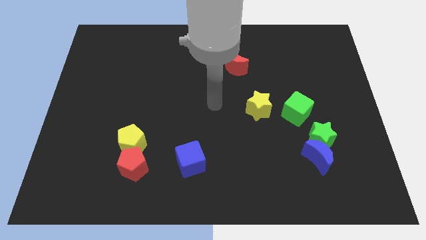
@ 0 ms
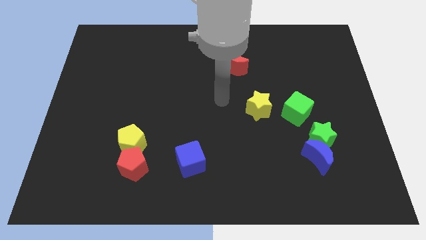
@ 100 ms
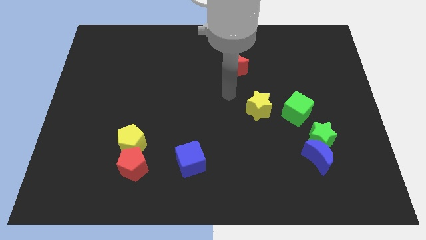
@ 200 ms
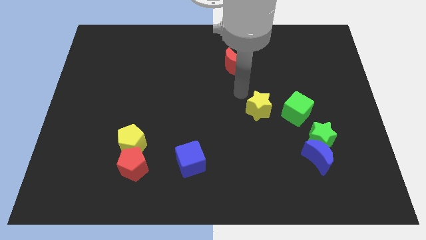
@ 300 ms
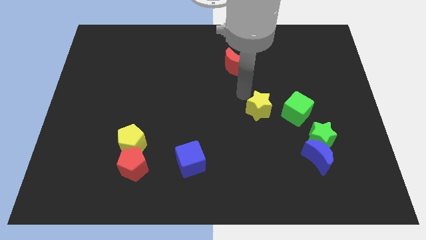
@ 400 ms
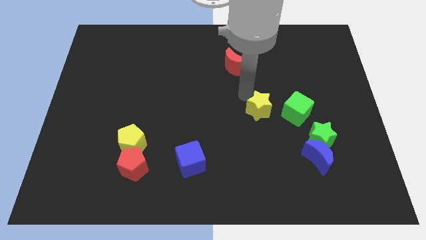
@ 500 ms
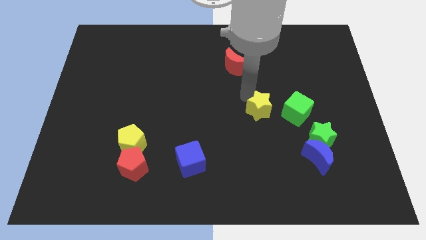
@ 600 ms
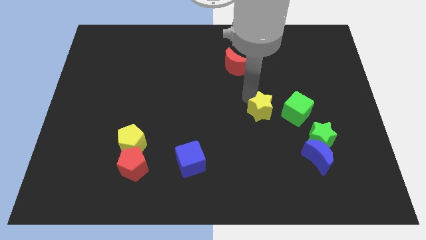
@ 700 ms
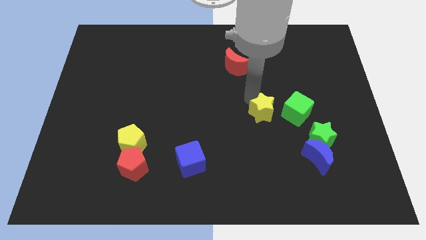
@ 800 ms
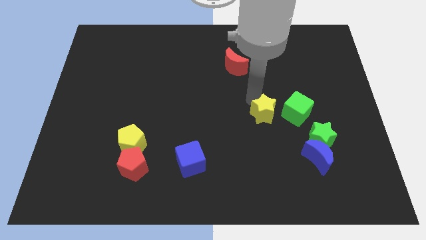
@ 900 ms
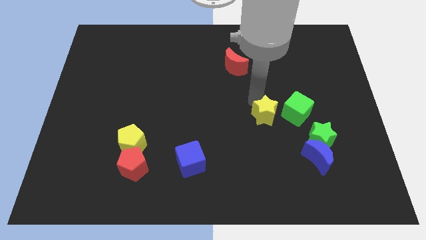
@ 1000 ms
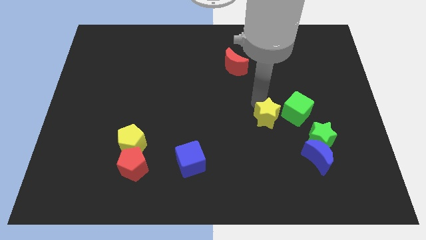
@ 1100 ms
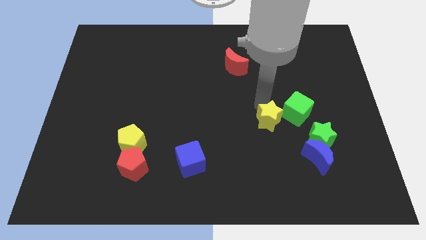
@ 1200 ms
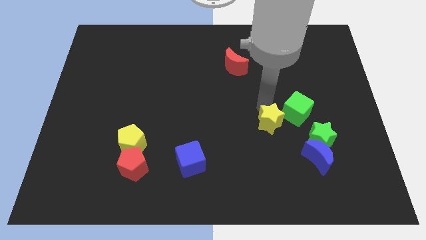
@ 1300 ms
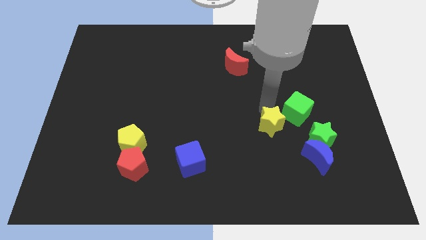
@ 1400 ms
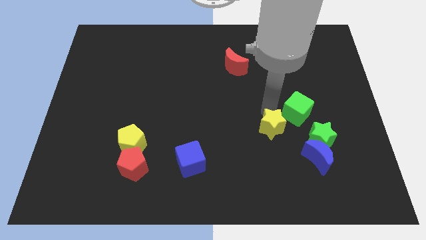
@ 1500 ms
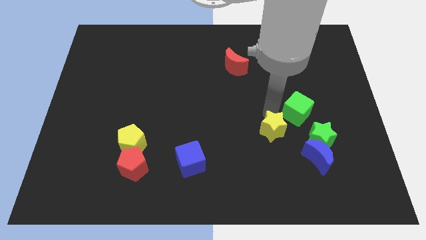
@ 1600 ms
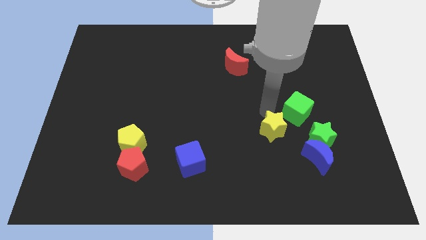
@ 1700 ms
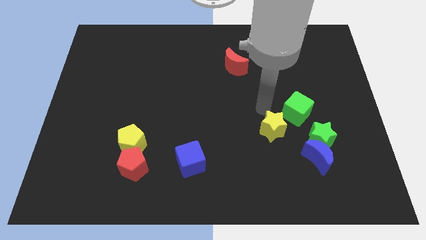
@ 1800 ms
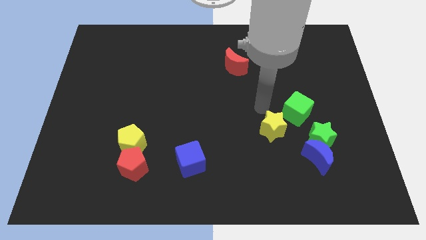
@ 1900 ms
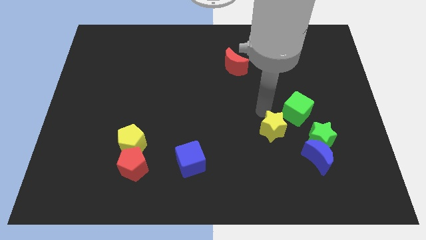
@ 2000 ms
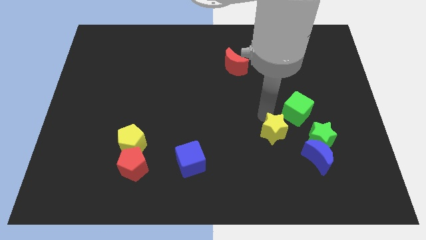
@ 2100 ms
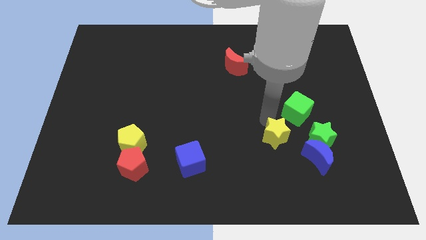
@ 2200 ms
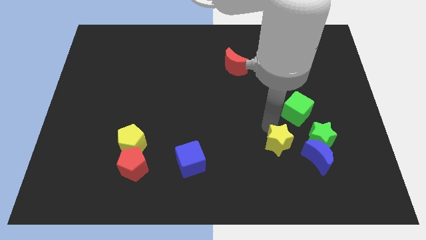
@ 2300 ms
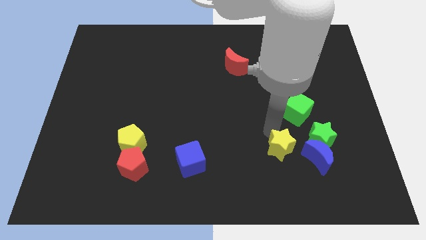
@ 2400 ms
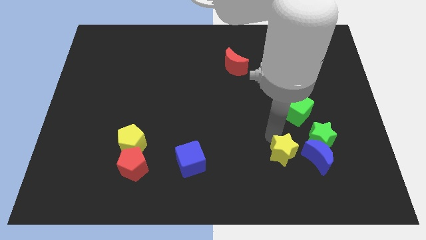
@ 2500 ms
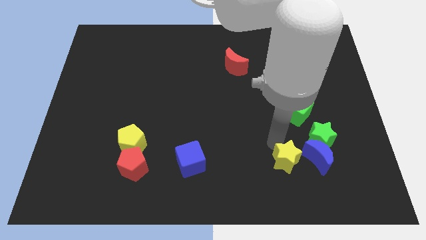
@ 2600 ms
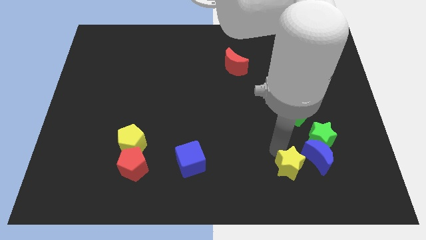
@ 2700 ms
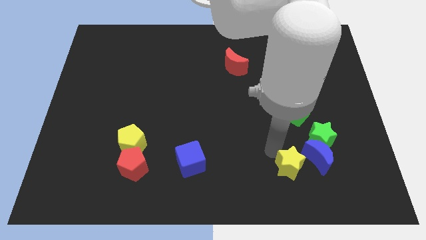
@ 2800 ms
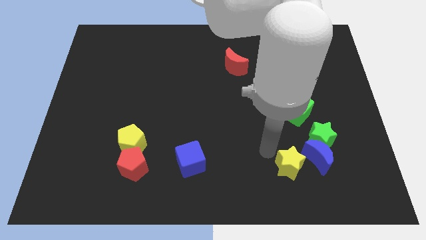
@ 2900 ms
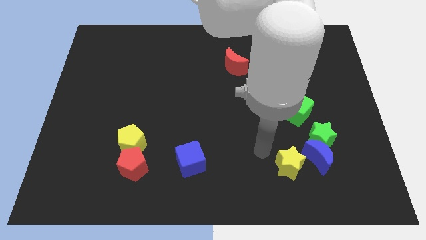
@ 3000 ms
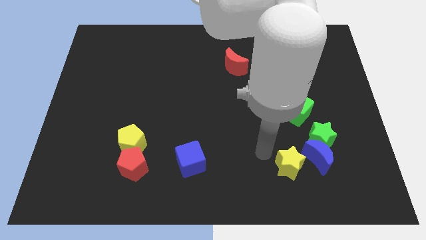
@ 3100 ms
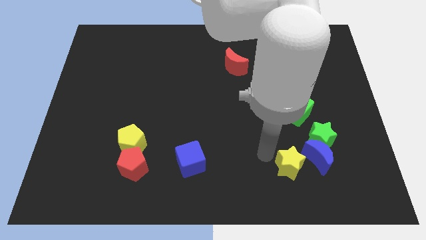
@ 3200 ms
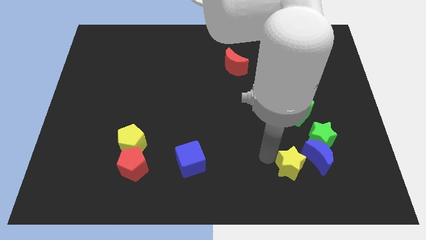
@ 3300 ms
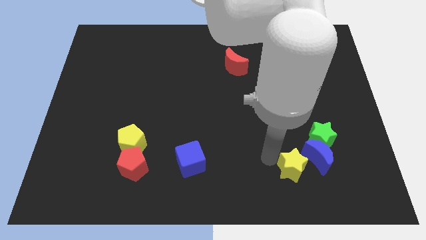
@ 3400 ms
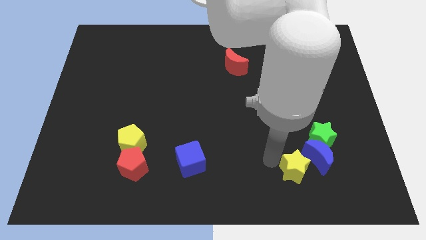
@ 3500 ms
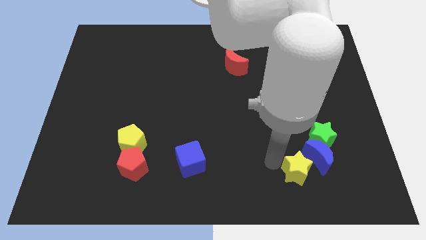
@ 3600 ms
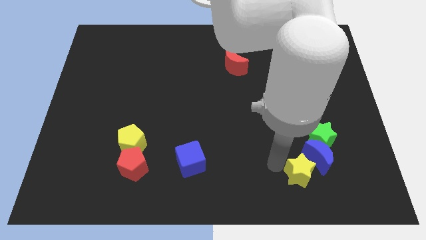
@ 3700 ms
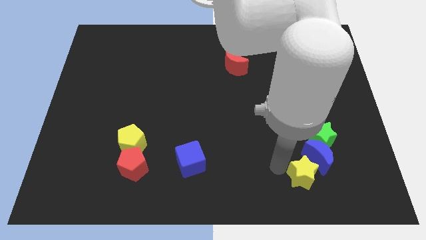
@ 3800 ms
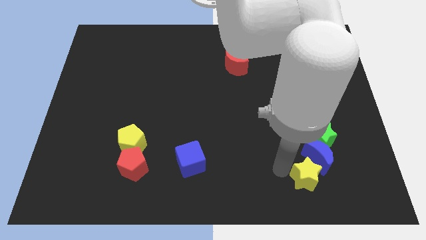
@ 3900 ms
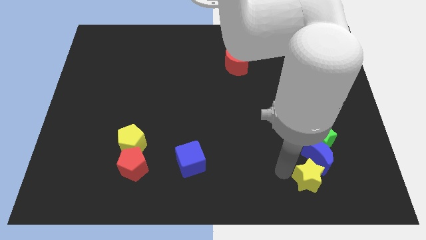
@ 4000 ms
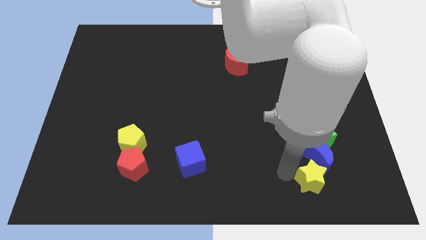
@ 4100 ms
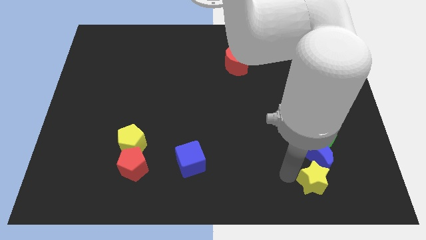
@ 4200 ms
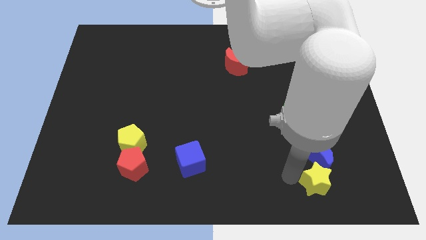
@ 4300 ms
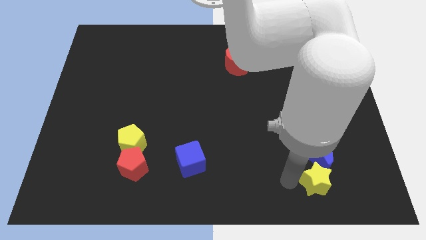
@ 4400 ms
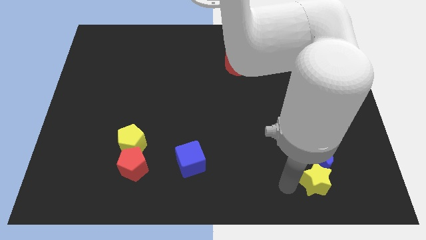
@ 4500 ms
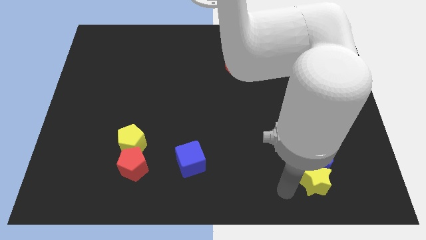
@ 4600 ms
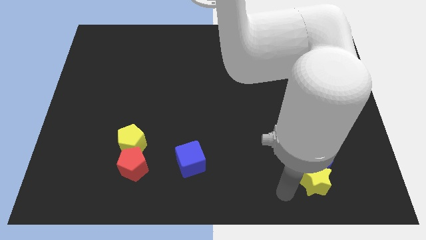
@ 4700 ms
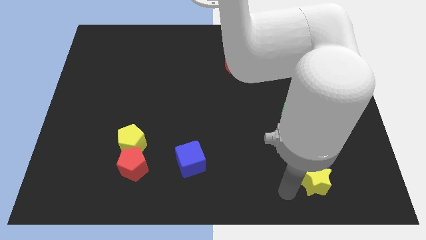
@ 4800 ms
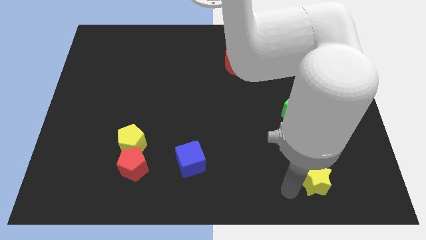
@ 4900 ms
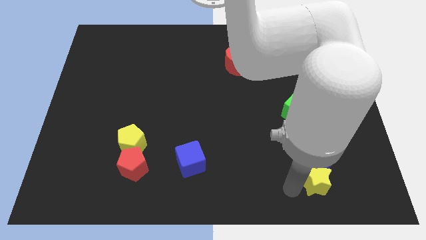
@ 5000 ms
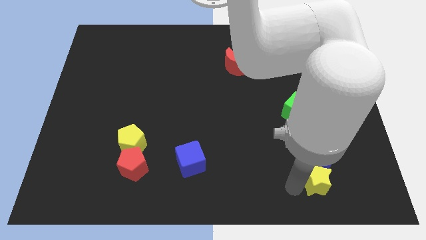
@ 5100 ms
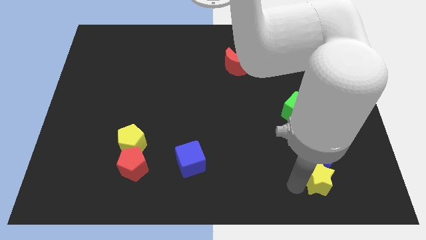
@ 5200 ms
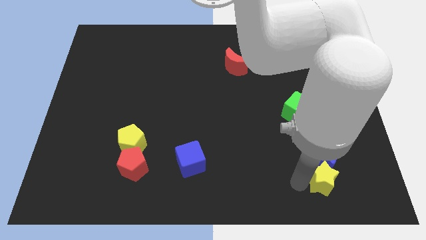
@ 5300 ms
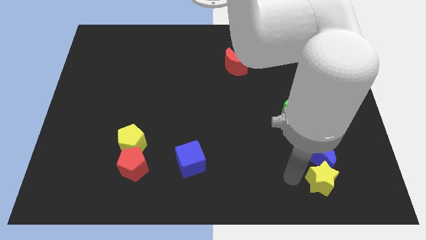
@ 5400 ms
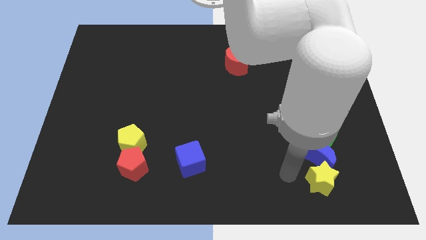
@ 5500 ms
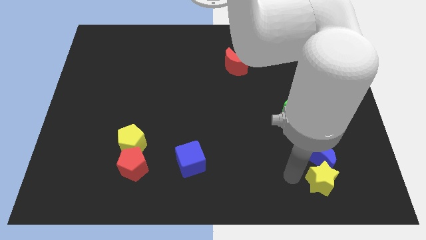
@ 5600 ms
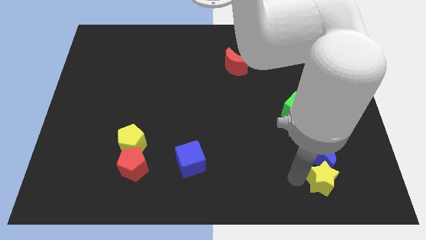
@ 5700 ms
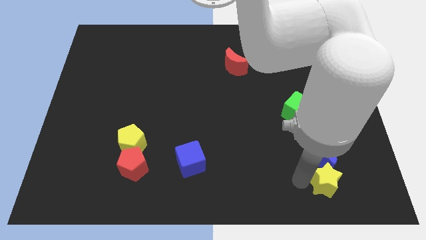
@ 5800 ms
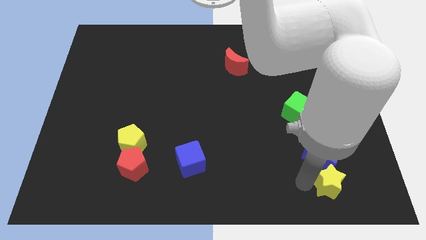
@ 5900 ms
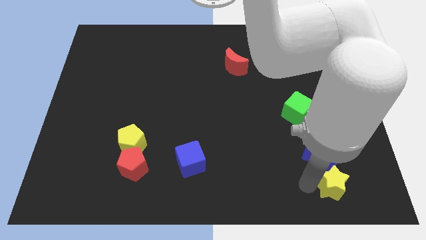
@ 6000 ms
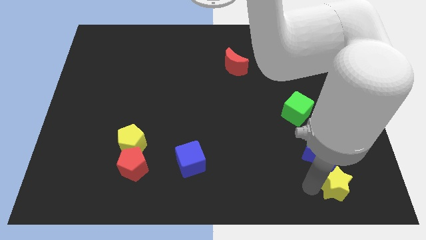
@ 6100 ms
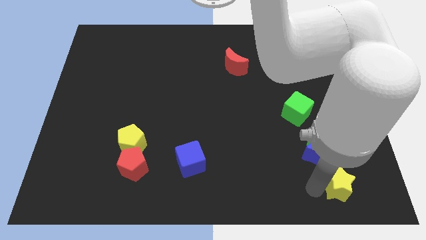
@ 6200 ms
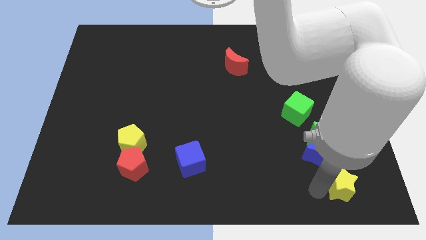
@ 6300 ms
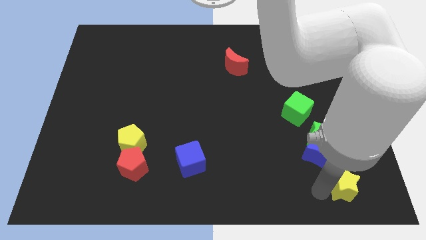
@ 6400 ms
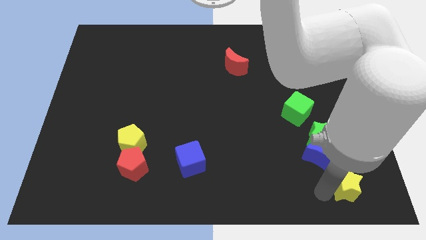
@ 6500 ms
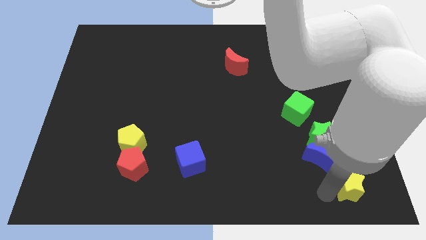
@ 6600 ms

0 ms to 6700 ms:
move the yellow star to the bottom right

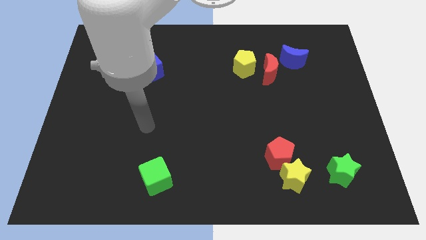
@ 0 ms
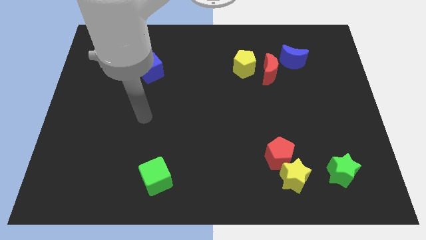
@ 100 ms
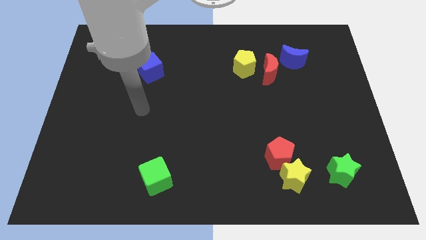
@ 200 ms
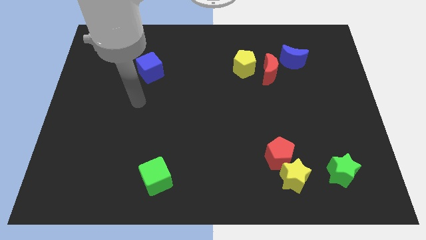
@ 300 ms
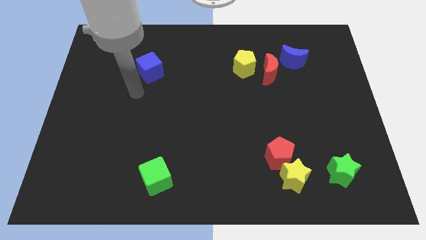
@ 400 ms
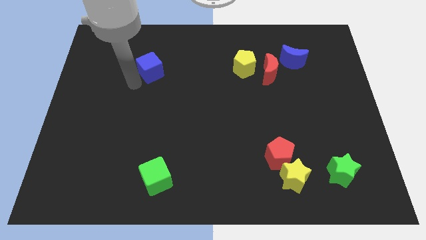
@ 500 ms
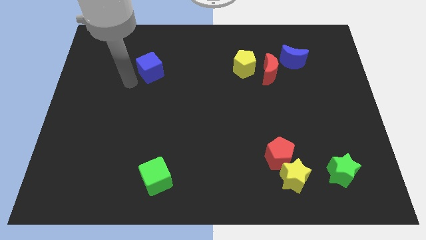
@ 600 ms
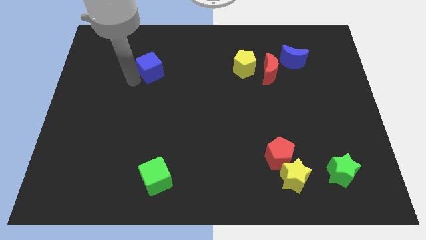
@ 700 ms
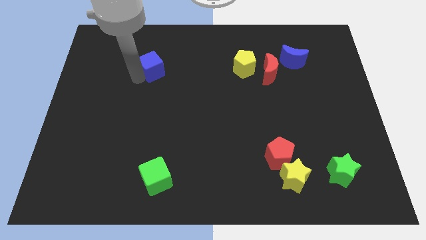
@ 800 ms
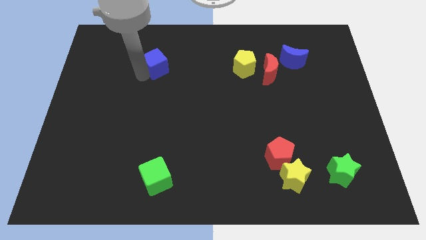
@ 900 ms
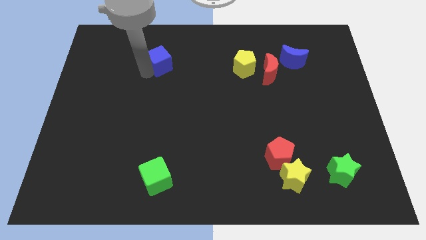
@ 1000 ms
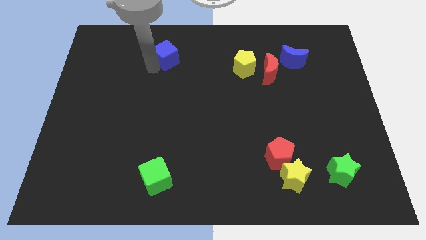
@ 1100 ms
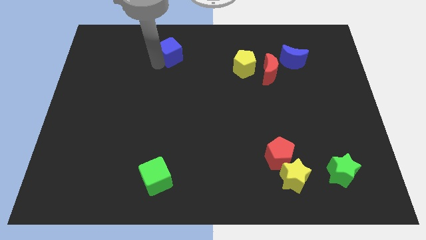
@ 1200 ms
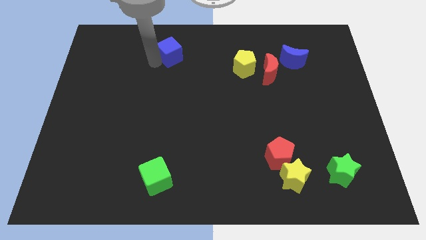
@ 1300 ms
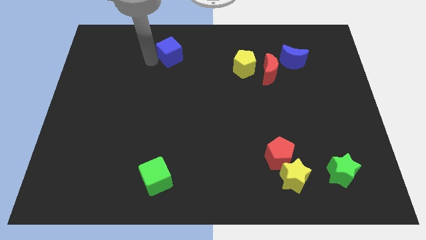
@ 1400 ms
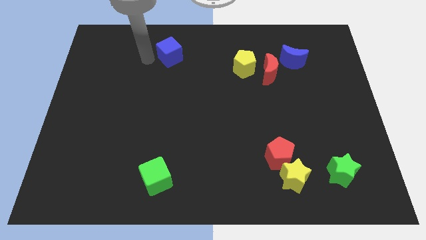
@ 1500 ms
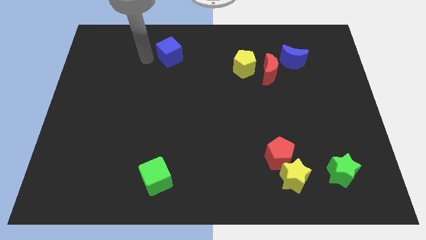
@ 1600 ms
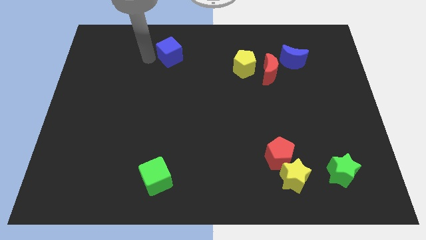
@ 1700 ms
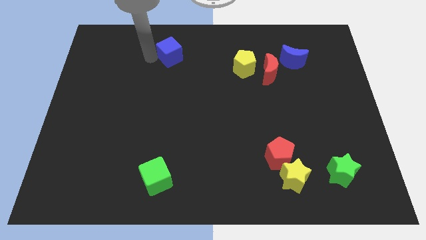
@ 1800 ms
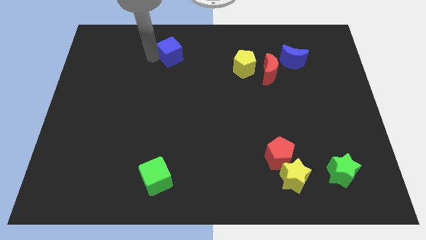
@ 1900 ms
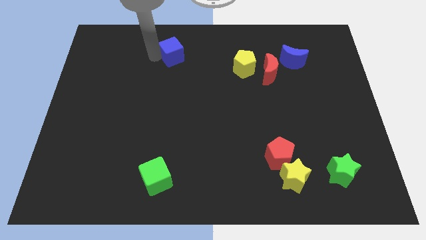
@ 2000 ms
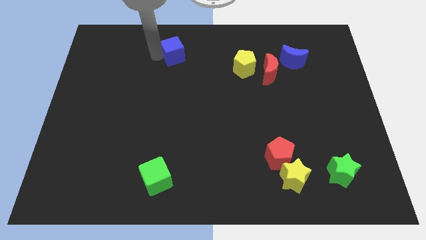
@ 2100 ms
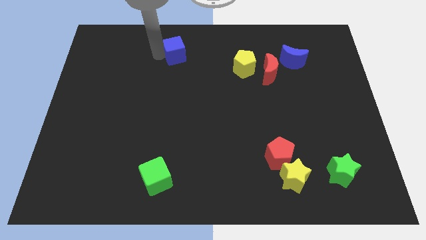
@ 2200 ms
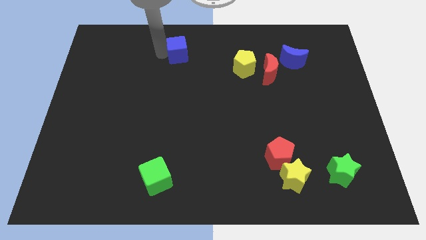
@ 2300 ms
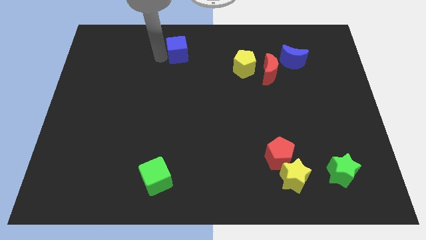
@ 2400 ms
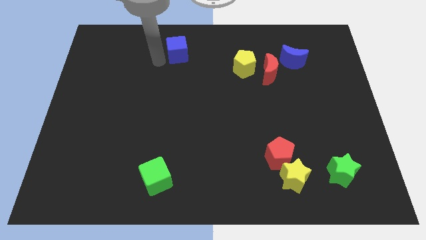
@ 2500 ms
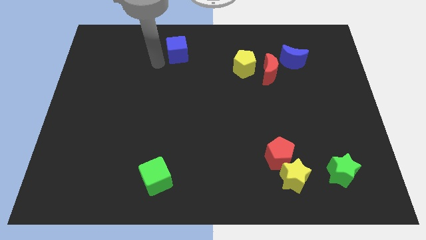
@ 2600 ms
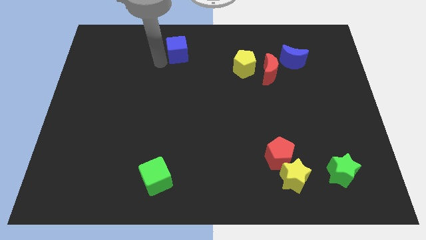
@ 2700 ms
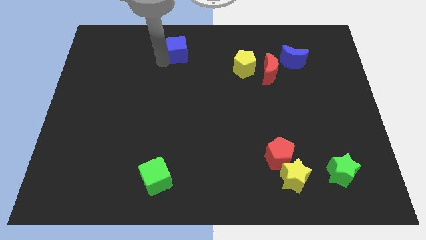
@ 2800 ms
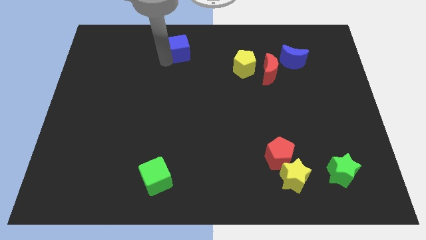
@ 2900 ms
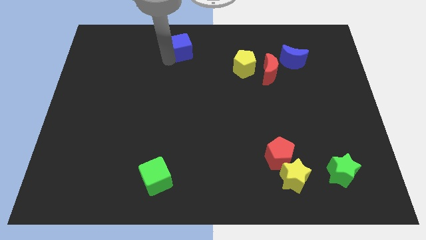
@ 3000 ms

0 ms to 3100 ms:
put the blue cube to the top
